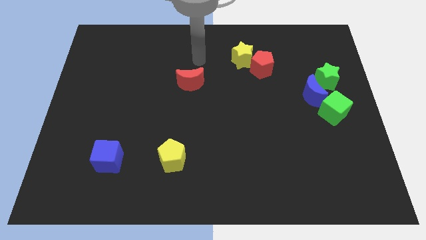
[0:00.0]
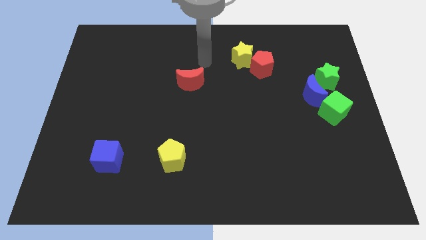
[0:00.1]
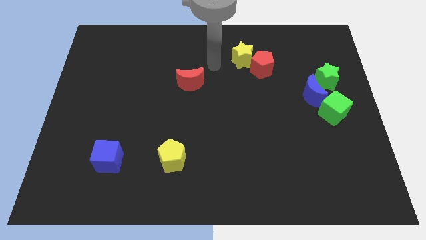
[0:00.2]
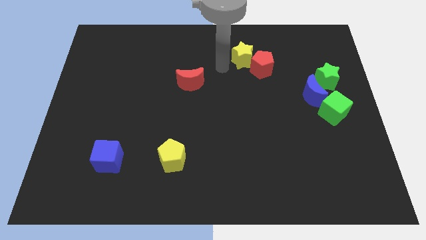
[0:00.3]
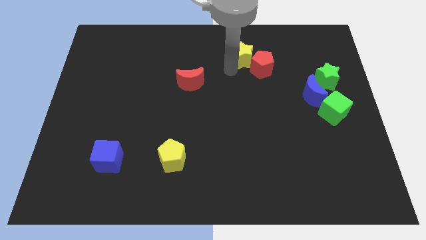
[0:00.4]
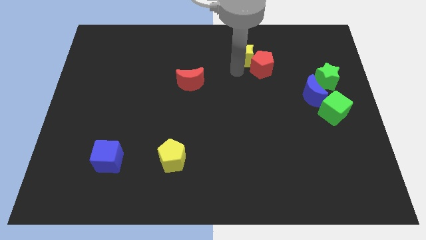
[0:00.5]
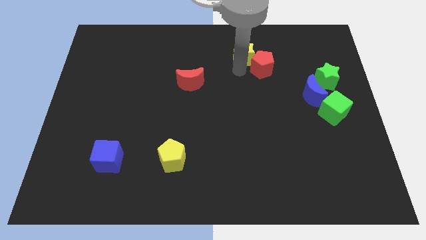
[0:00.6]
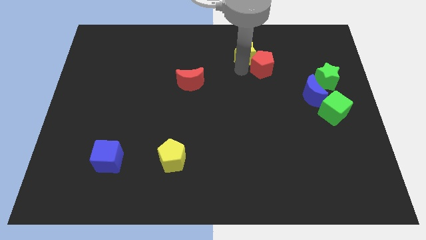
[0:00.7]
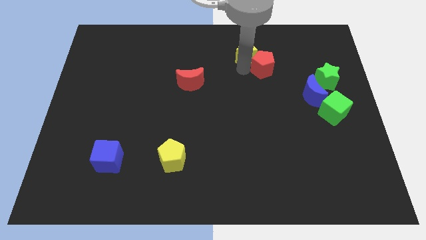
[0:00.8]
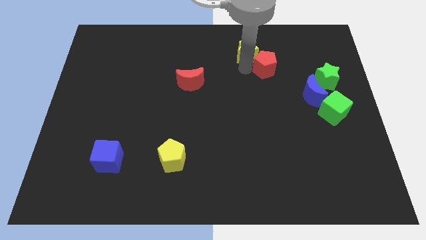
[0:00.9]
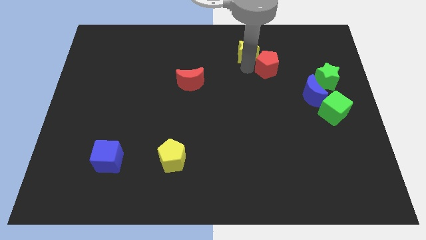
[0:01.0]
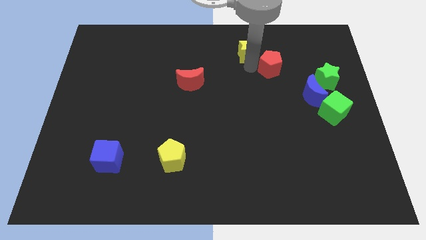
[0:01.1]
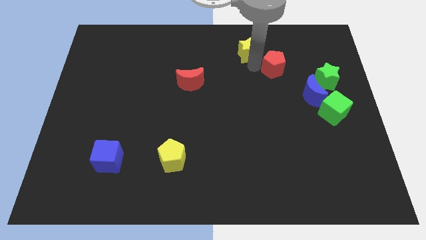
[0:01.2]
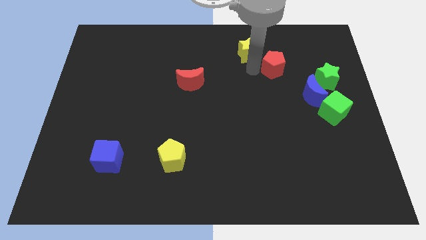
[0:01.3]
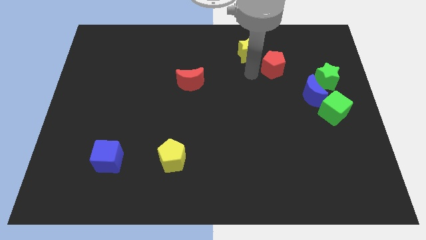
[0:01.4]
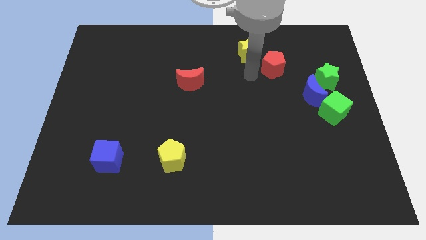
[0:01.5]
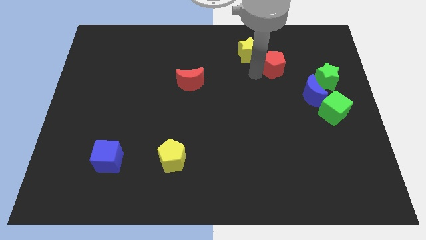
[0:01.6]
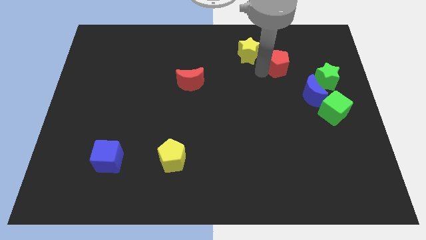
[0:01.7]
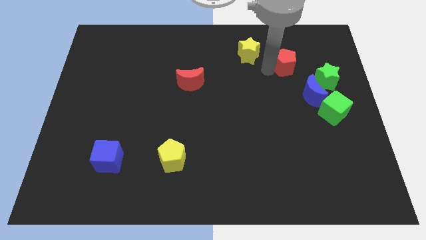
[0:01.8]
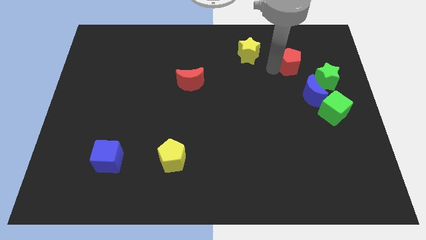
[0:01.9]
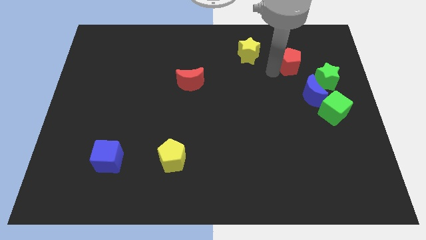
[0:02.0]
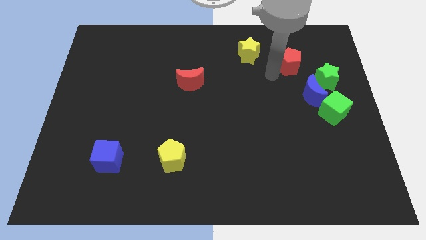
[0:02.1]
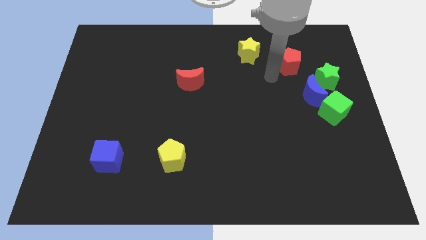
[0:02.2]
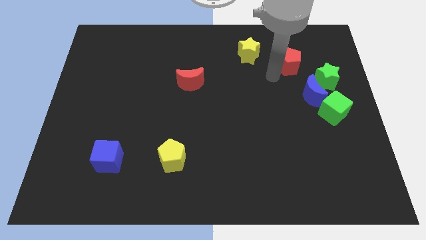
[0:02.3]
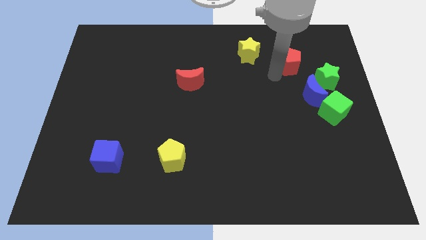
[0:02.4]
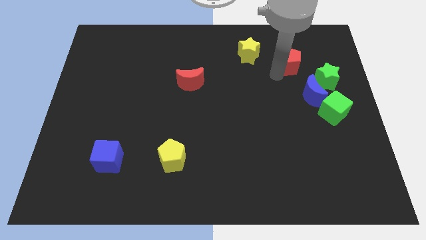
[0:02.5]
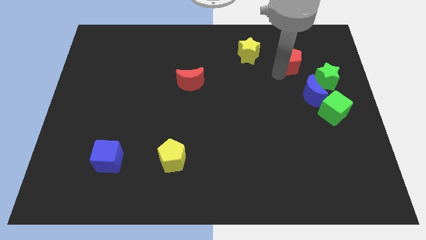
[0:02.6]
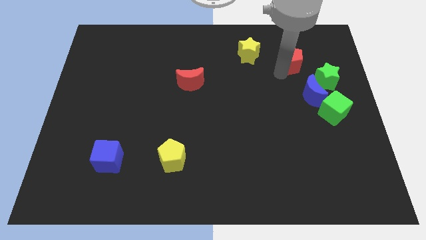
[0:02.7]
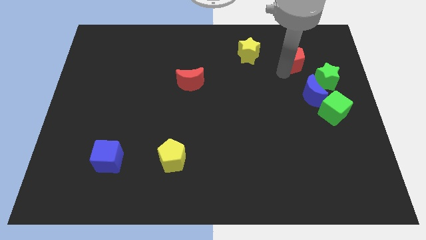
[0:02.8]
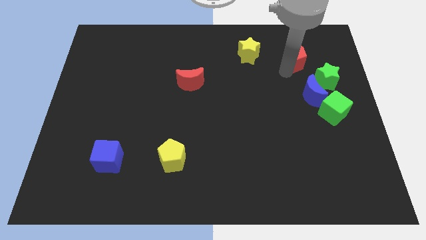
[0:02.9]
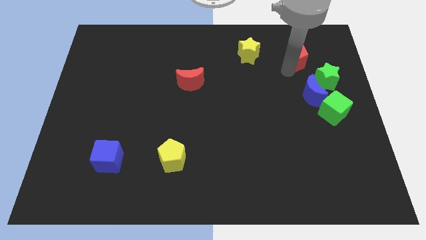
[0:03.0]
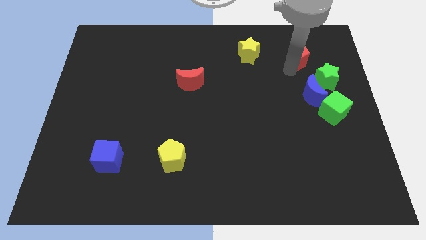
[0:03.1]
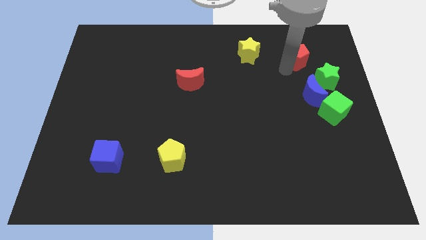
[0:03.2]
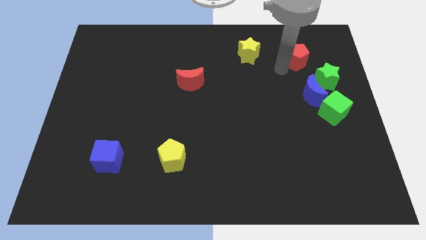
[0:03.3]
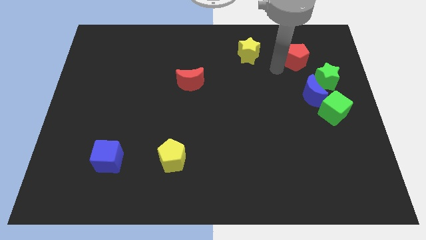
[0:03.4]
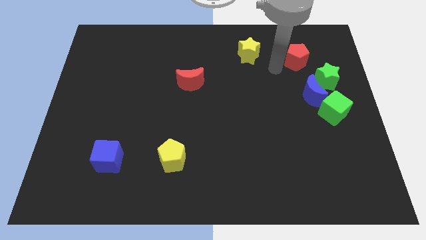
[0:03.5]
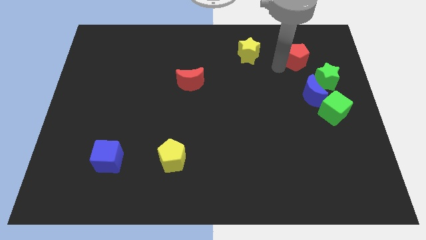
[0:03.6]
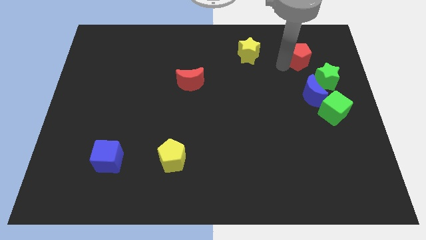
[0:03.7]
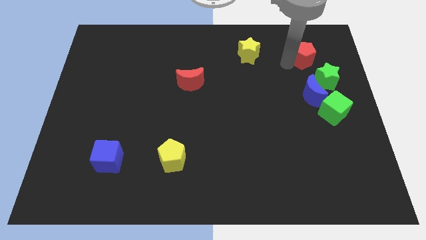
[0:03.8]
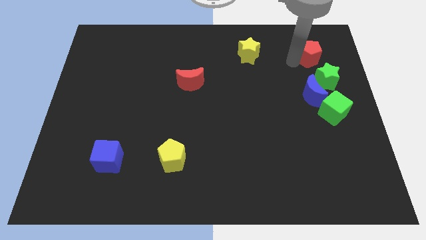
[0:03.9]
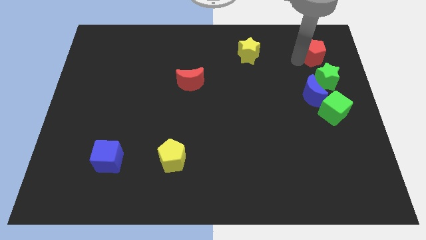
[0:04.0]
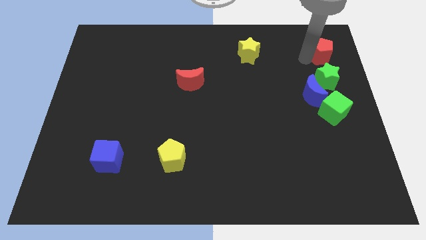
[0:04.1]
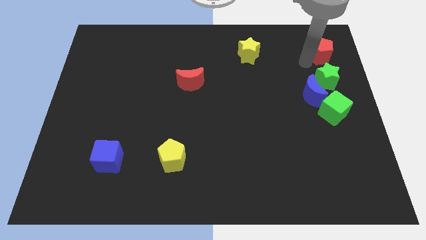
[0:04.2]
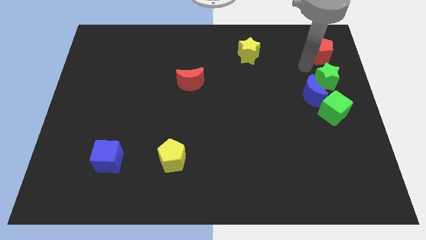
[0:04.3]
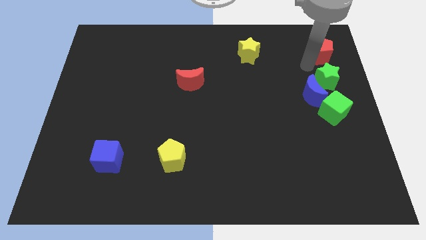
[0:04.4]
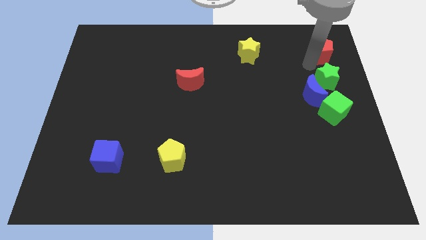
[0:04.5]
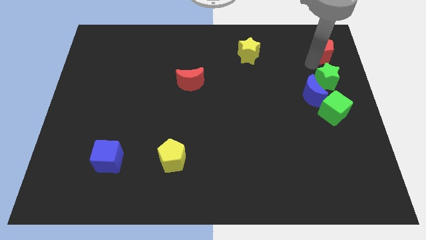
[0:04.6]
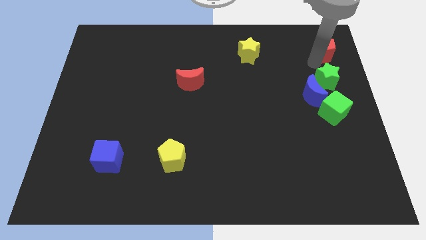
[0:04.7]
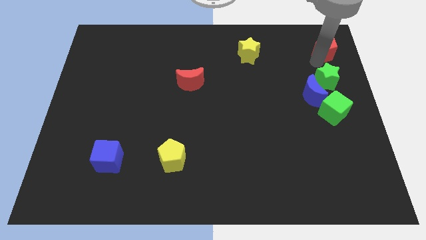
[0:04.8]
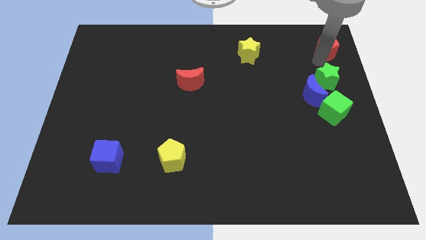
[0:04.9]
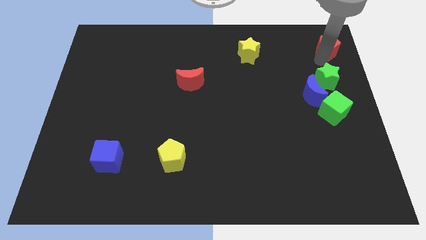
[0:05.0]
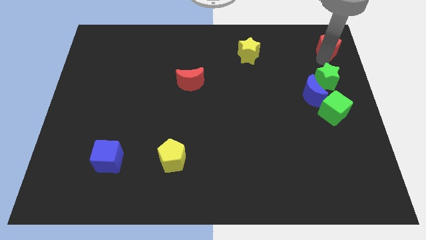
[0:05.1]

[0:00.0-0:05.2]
push the red pentagon to the upper right corner

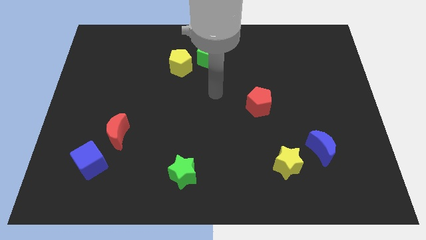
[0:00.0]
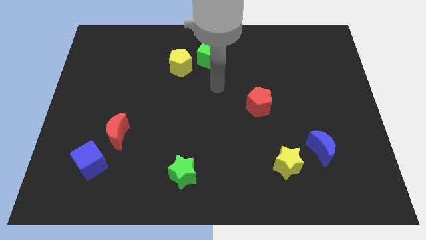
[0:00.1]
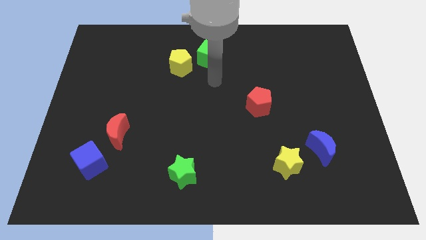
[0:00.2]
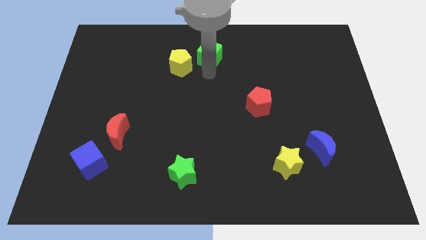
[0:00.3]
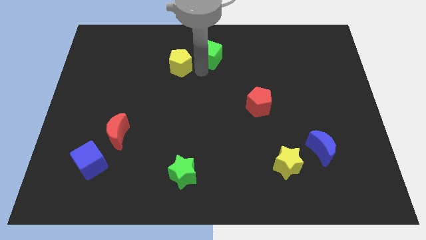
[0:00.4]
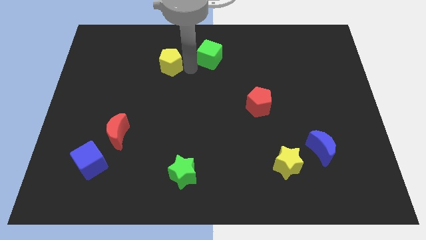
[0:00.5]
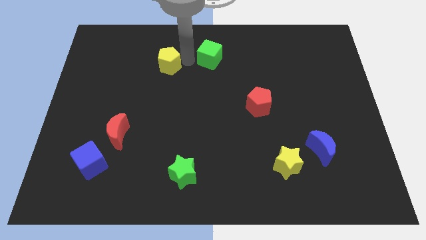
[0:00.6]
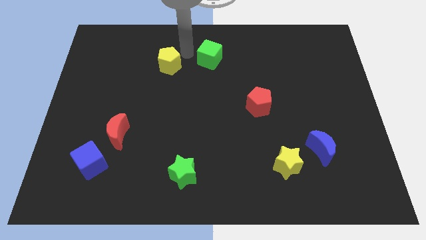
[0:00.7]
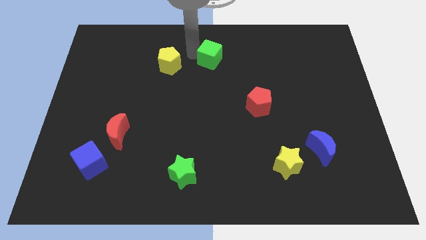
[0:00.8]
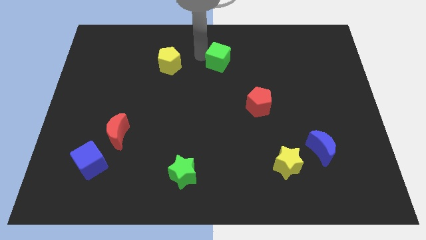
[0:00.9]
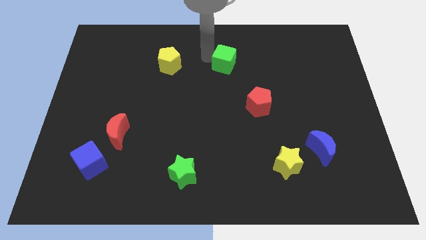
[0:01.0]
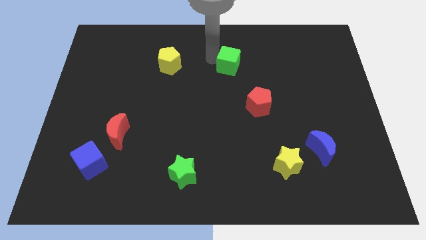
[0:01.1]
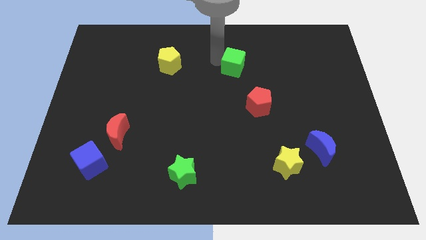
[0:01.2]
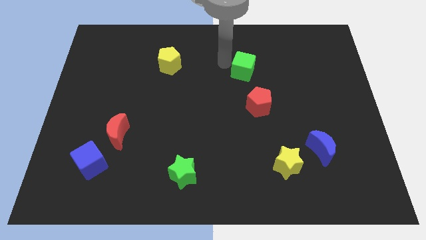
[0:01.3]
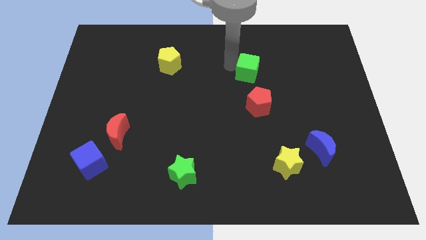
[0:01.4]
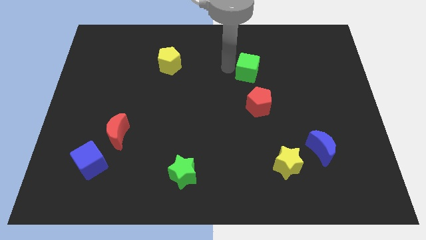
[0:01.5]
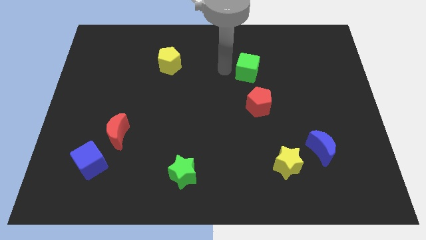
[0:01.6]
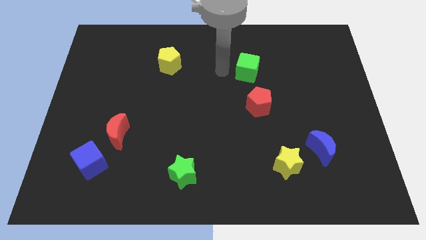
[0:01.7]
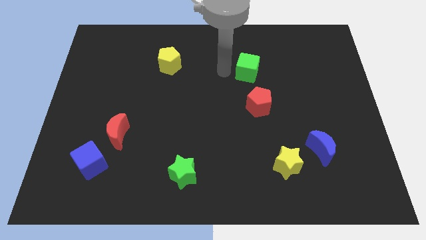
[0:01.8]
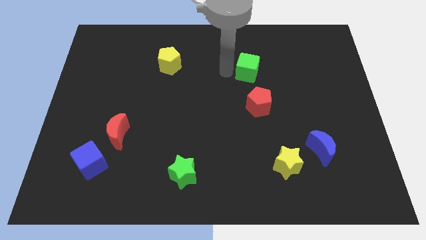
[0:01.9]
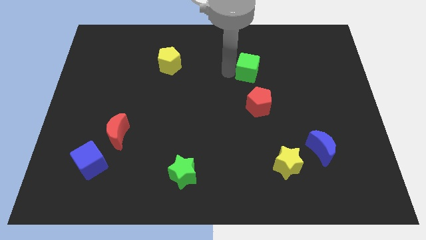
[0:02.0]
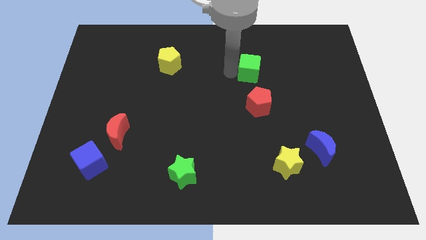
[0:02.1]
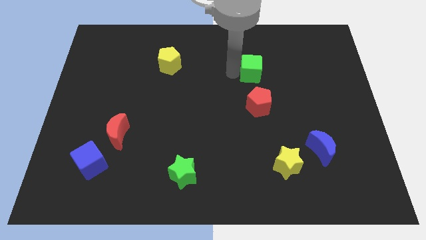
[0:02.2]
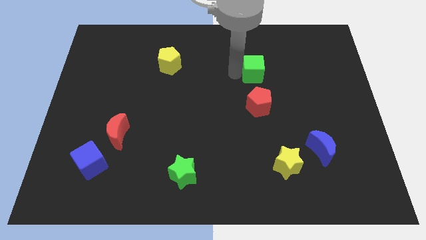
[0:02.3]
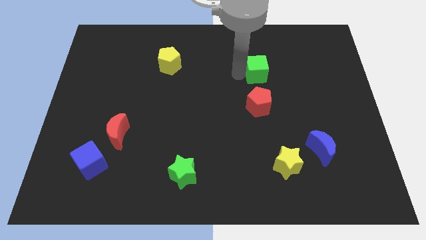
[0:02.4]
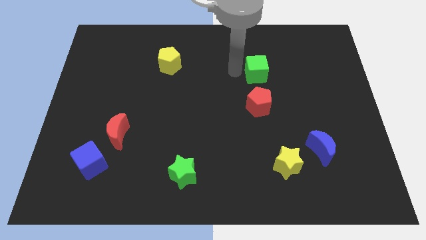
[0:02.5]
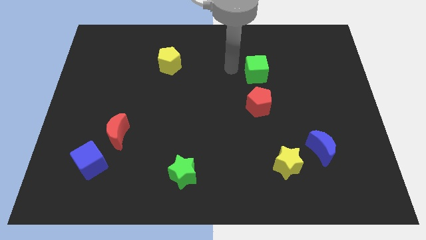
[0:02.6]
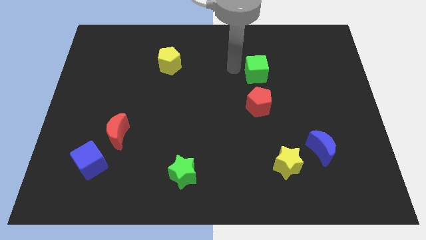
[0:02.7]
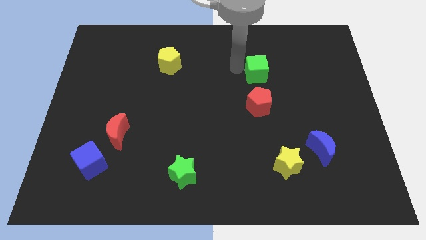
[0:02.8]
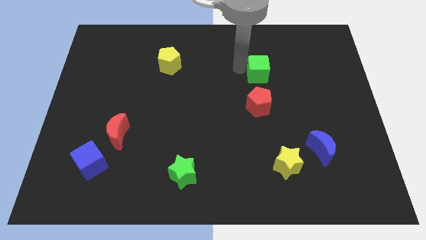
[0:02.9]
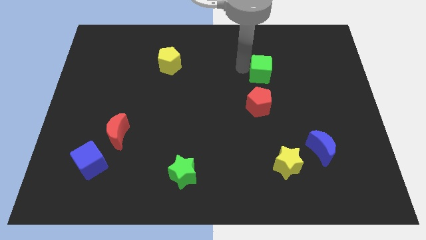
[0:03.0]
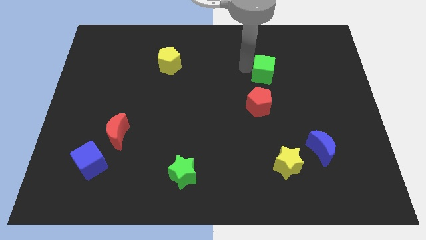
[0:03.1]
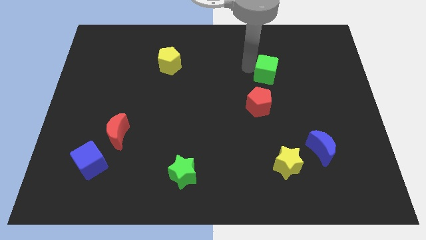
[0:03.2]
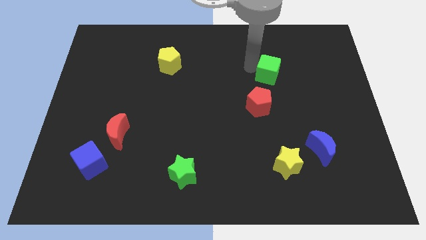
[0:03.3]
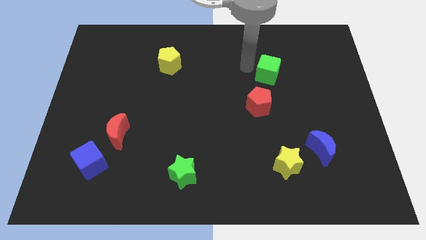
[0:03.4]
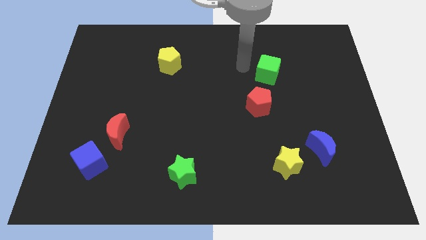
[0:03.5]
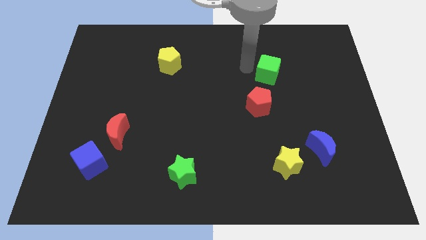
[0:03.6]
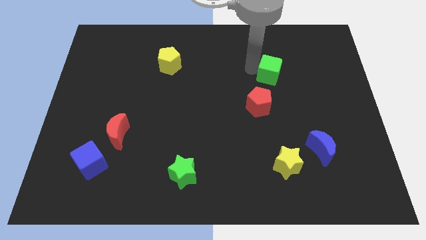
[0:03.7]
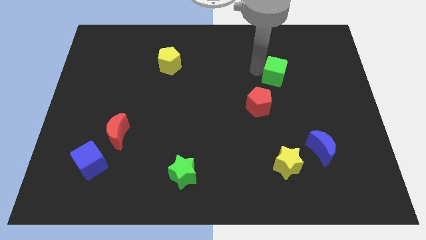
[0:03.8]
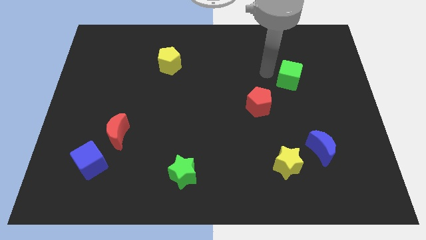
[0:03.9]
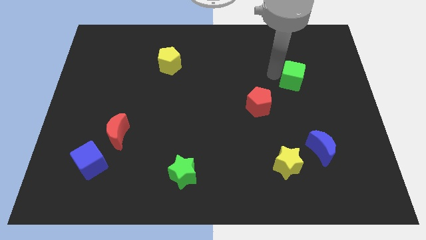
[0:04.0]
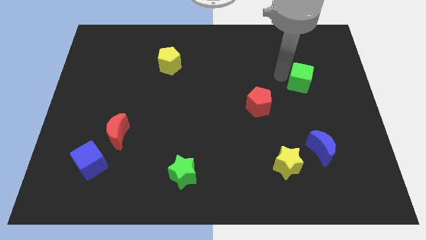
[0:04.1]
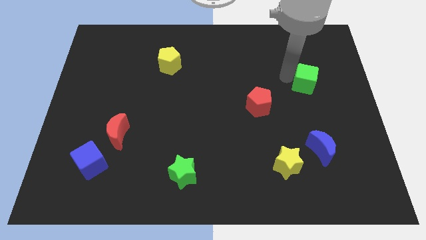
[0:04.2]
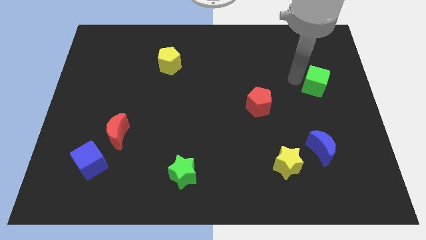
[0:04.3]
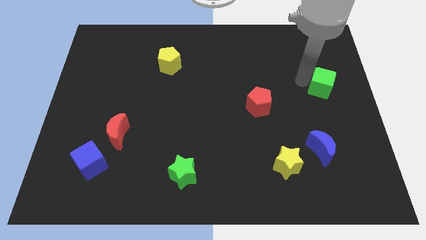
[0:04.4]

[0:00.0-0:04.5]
move the green cube to the right side of the board
